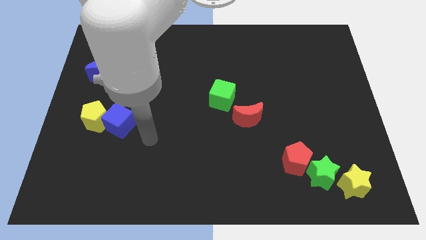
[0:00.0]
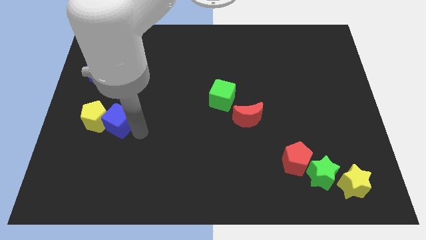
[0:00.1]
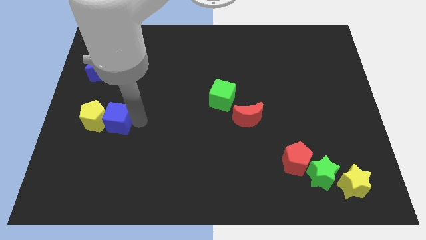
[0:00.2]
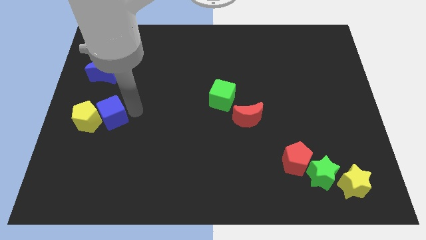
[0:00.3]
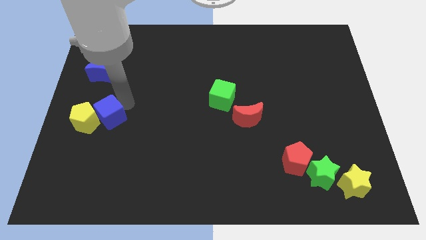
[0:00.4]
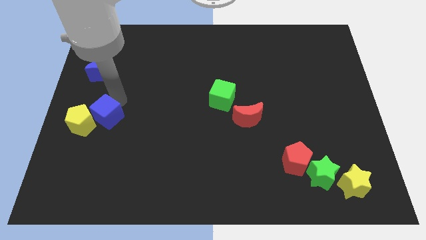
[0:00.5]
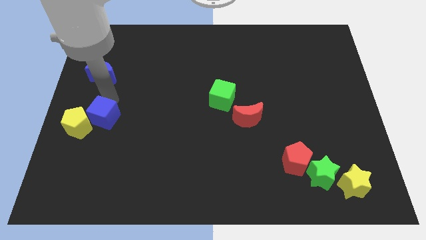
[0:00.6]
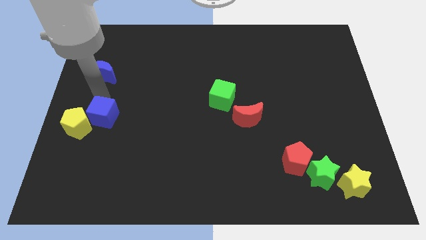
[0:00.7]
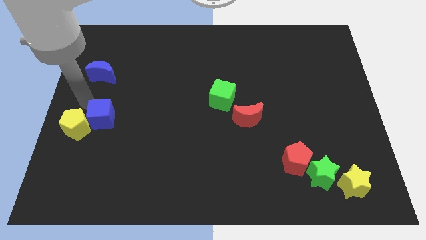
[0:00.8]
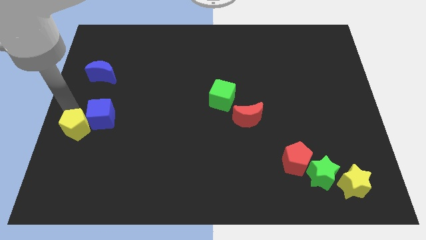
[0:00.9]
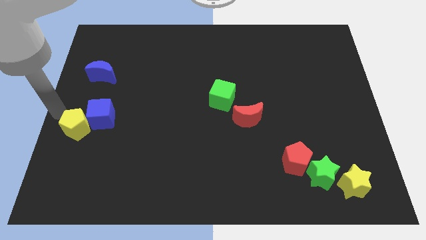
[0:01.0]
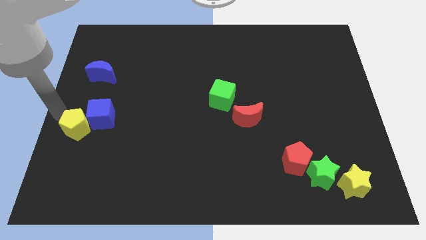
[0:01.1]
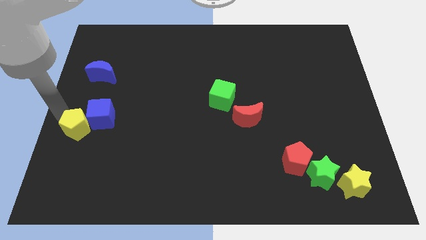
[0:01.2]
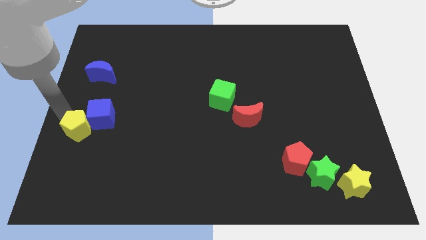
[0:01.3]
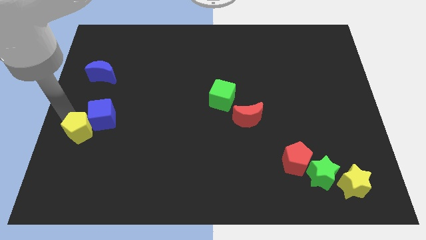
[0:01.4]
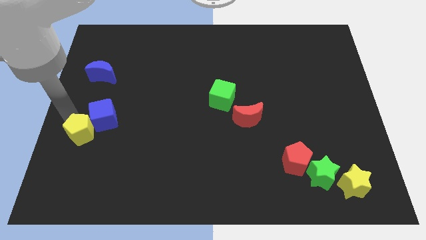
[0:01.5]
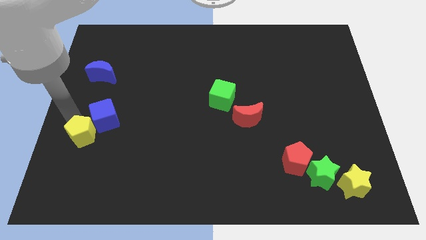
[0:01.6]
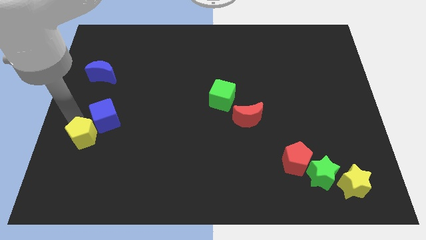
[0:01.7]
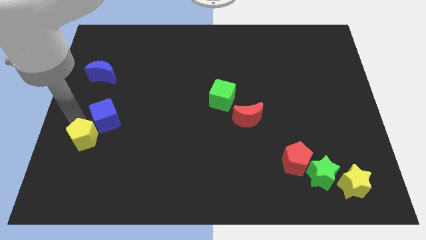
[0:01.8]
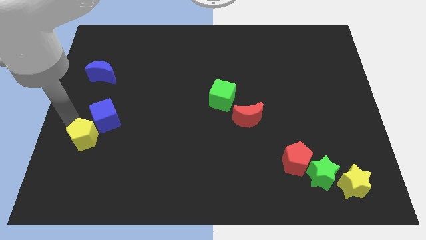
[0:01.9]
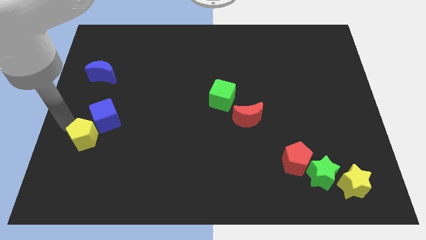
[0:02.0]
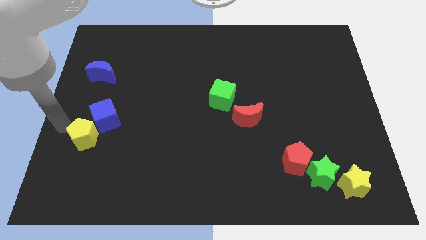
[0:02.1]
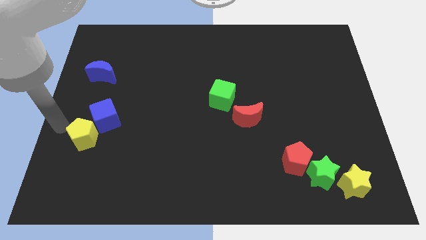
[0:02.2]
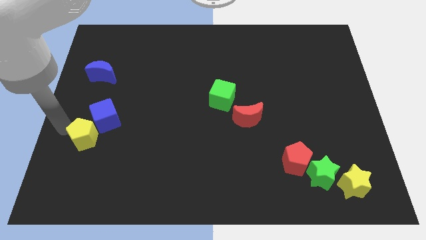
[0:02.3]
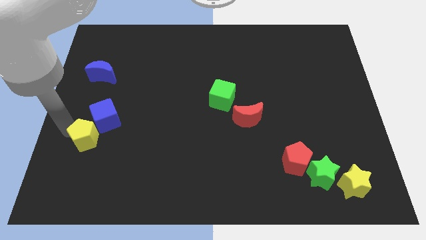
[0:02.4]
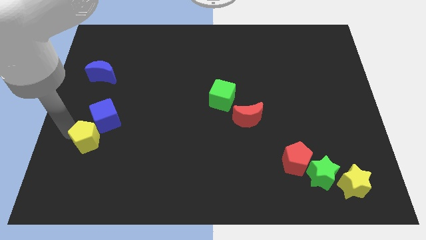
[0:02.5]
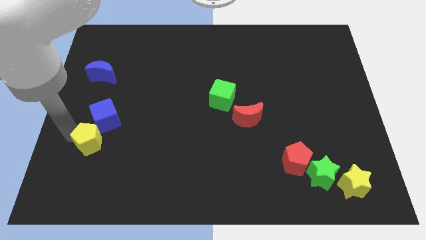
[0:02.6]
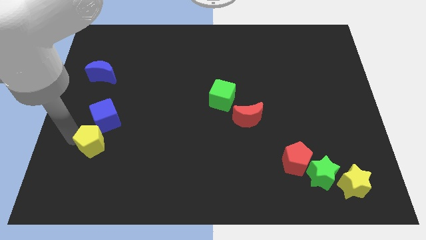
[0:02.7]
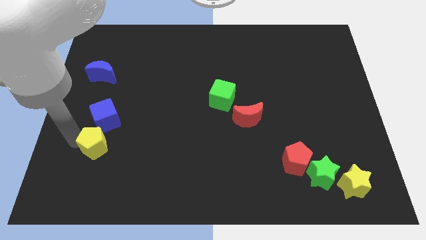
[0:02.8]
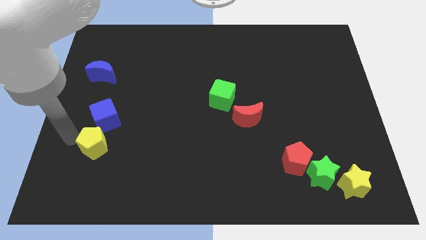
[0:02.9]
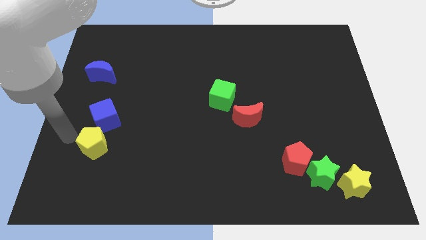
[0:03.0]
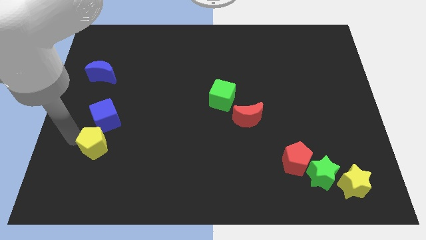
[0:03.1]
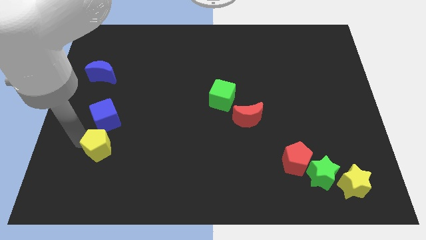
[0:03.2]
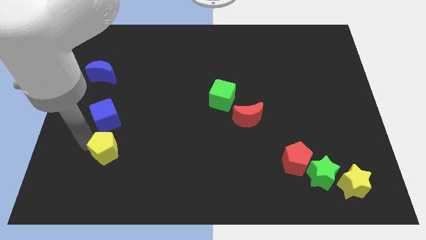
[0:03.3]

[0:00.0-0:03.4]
move the yellow pentagon somewhat downwards and right

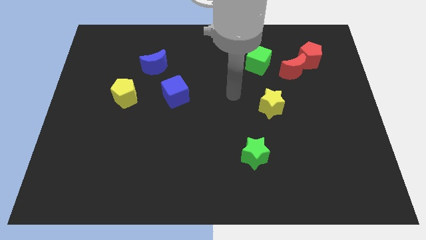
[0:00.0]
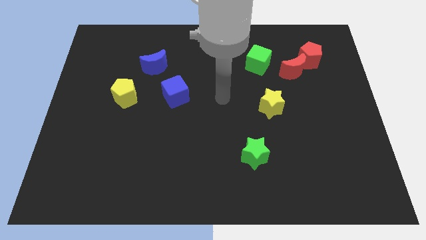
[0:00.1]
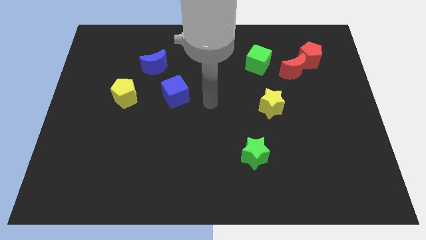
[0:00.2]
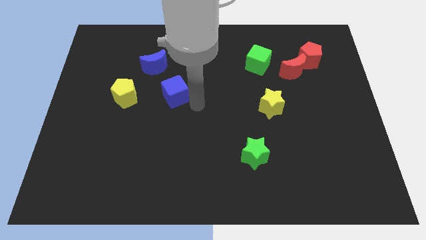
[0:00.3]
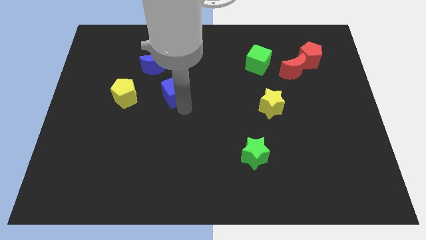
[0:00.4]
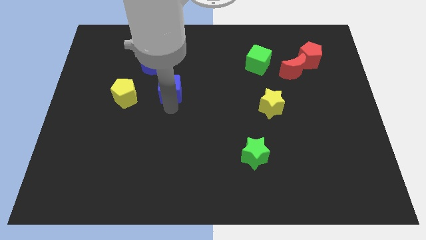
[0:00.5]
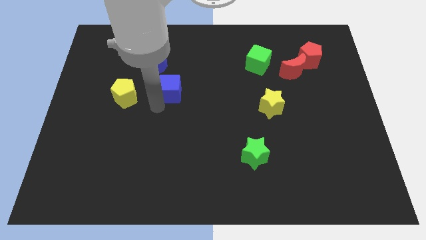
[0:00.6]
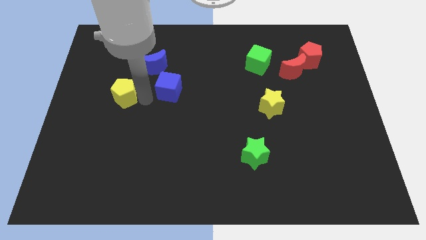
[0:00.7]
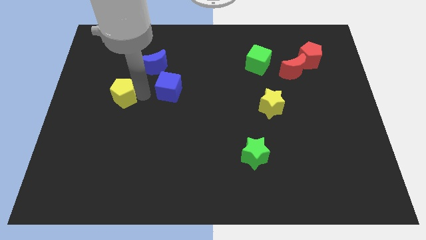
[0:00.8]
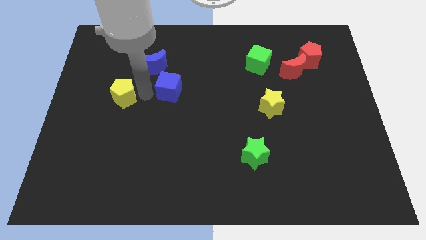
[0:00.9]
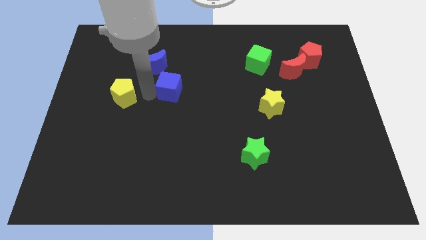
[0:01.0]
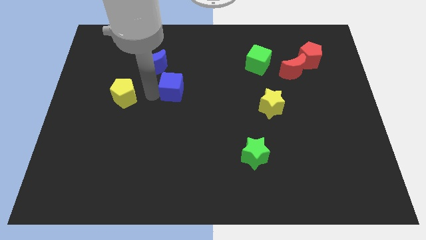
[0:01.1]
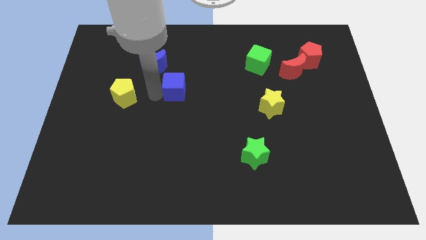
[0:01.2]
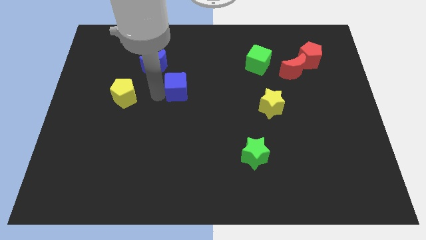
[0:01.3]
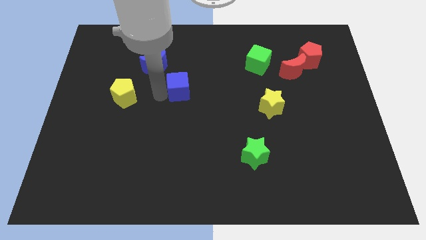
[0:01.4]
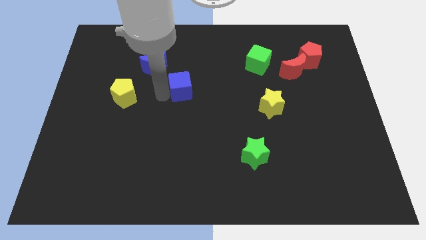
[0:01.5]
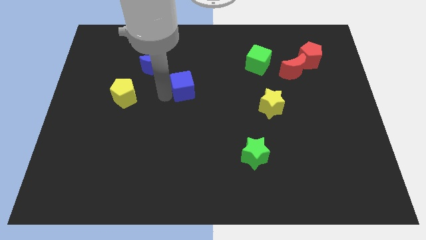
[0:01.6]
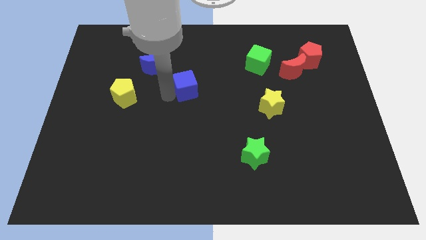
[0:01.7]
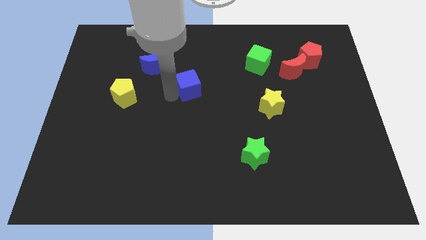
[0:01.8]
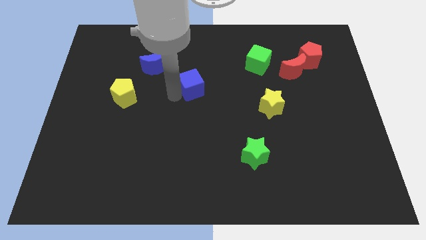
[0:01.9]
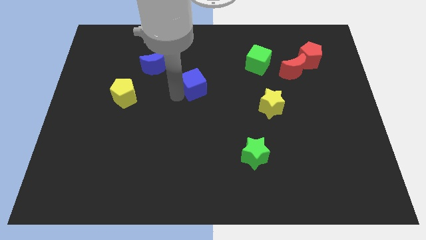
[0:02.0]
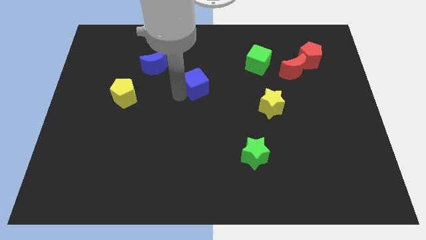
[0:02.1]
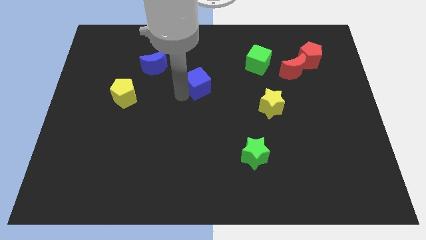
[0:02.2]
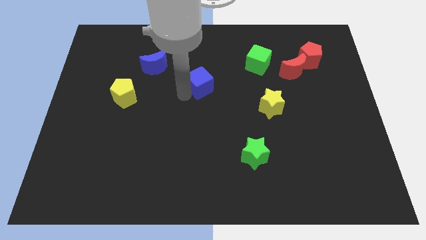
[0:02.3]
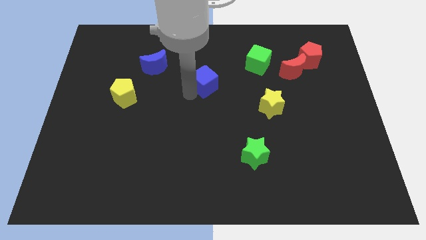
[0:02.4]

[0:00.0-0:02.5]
push the blue cube a bit diagonally upwards and to the right

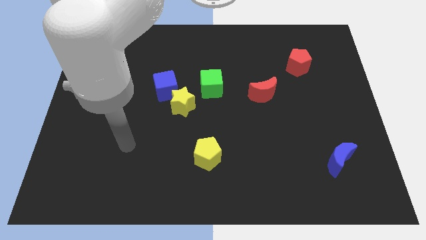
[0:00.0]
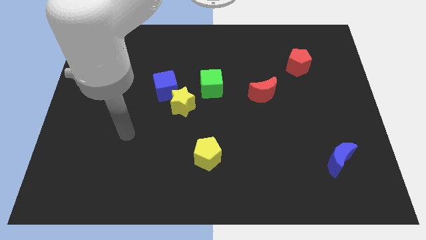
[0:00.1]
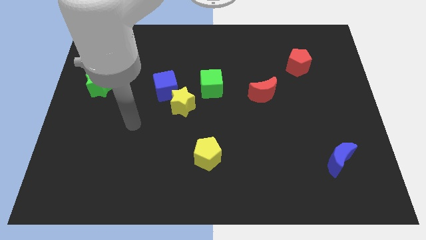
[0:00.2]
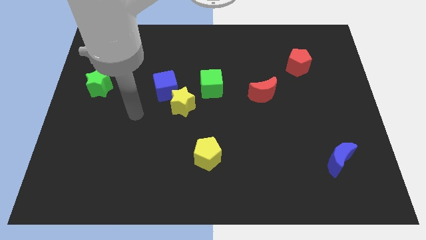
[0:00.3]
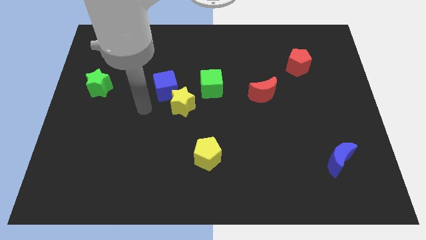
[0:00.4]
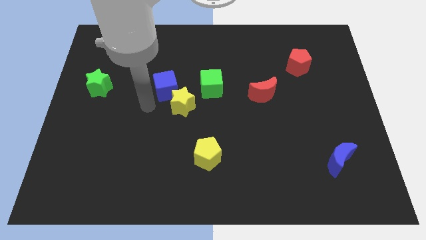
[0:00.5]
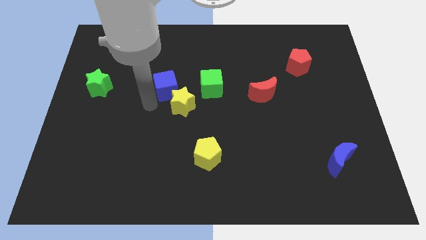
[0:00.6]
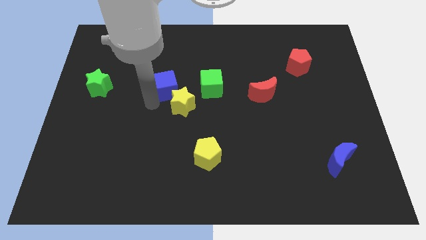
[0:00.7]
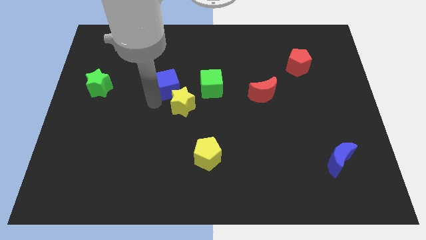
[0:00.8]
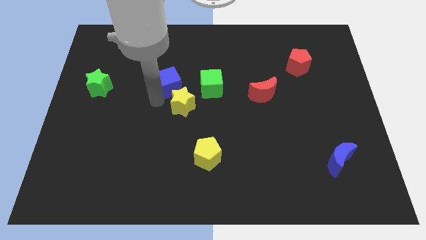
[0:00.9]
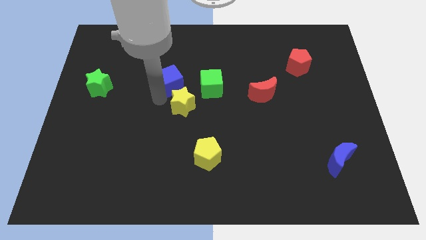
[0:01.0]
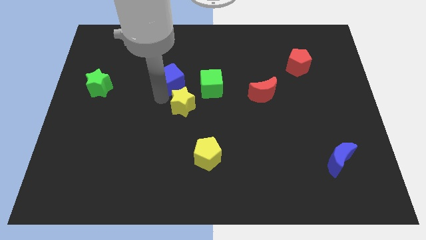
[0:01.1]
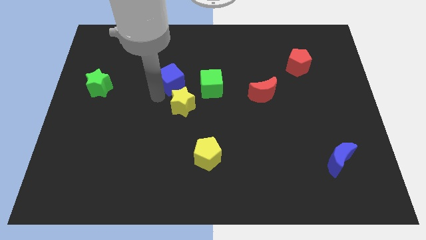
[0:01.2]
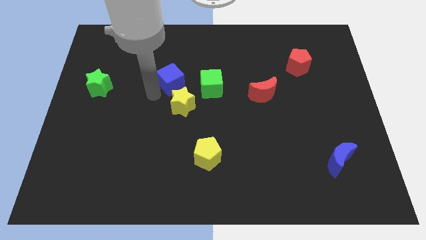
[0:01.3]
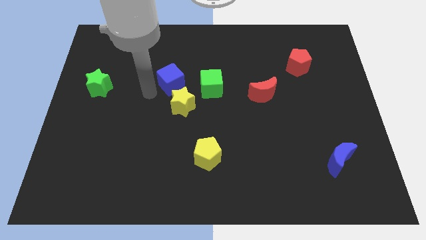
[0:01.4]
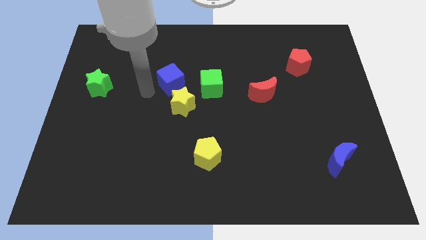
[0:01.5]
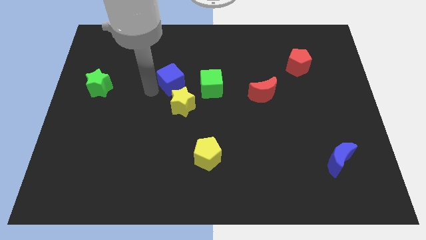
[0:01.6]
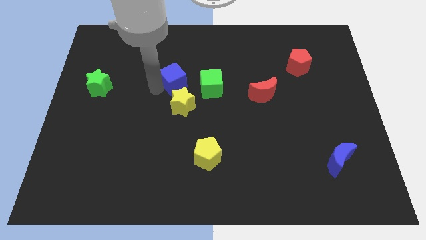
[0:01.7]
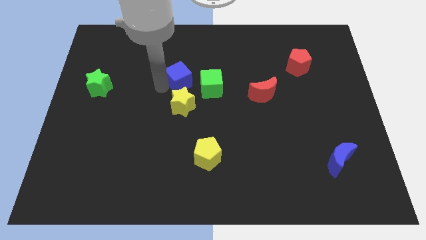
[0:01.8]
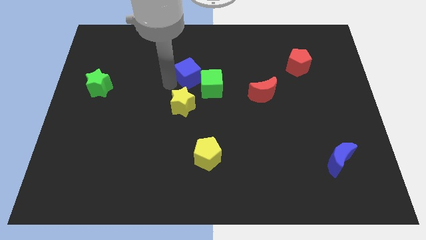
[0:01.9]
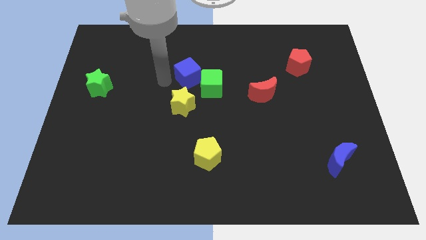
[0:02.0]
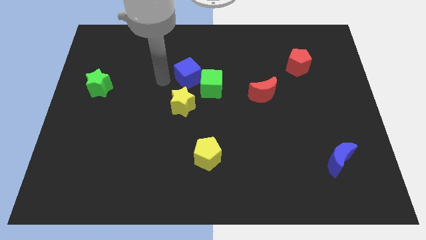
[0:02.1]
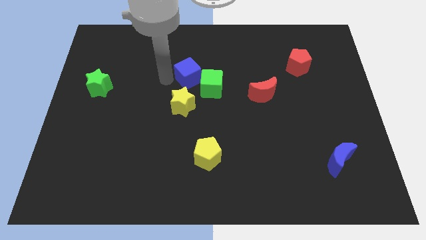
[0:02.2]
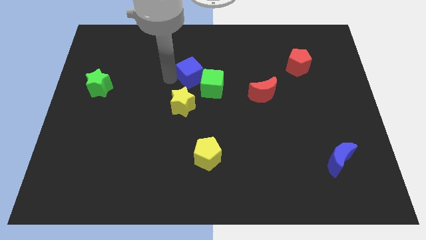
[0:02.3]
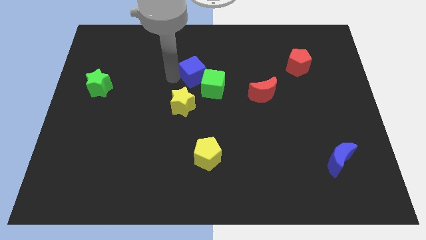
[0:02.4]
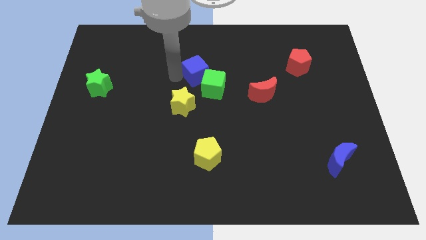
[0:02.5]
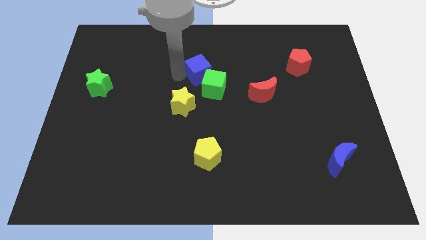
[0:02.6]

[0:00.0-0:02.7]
push the blue cube a little right
